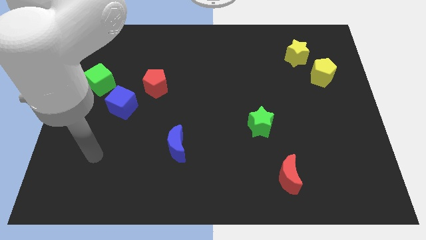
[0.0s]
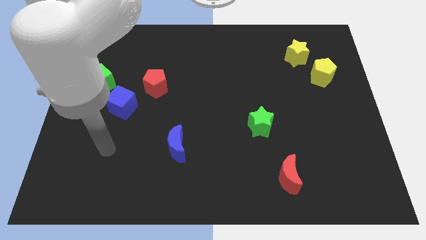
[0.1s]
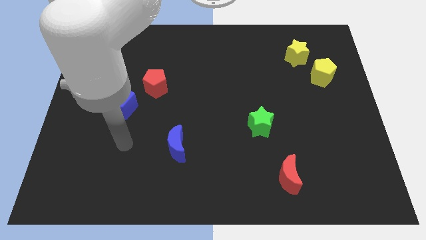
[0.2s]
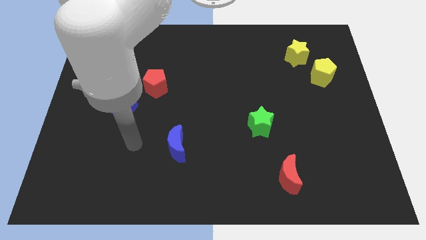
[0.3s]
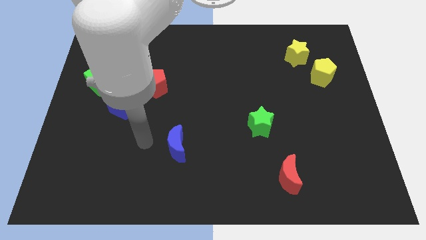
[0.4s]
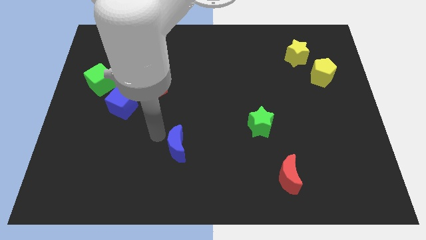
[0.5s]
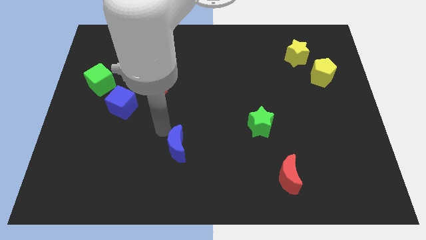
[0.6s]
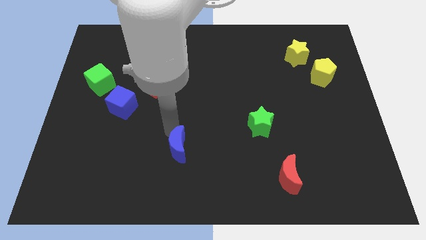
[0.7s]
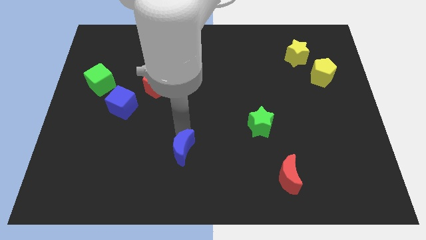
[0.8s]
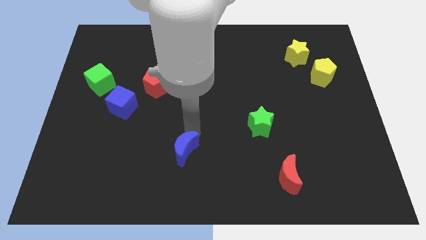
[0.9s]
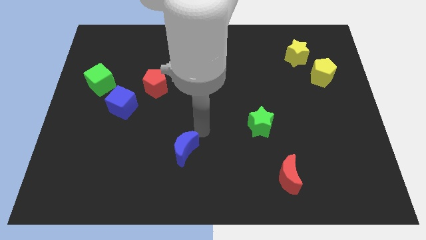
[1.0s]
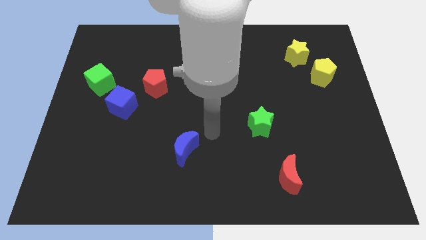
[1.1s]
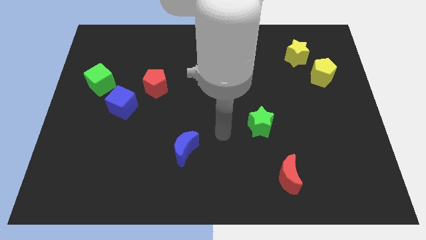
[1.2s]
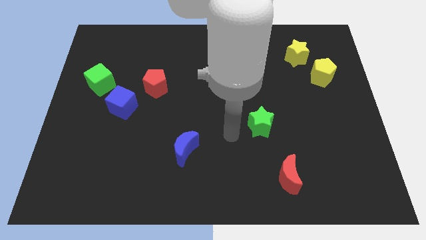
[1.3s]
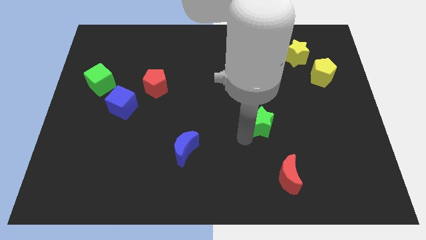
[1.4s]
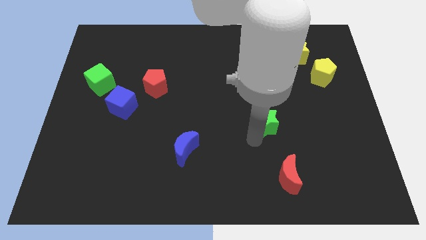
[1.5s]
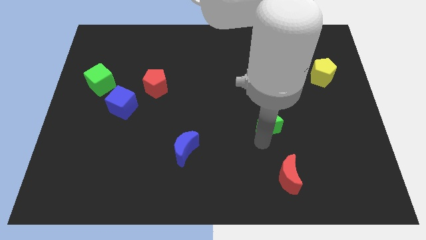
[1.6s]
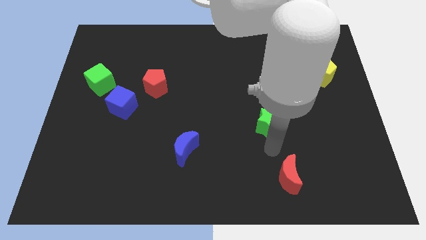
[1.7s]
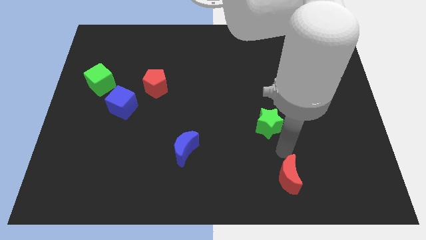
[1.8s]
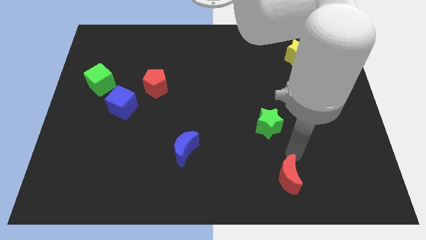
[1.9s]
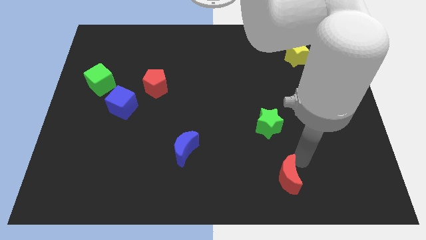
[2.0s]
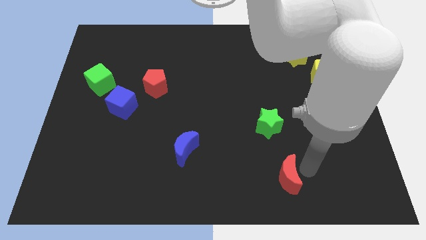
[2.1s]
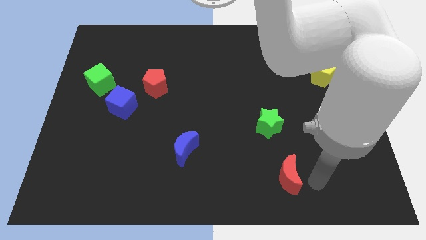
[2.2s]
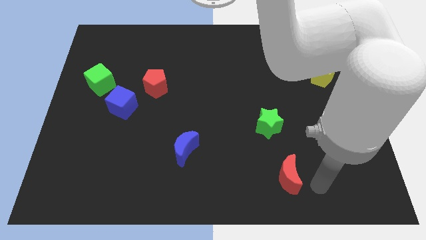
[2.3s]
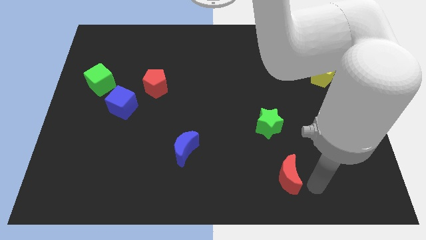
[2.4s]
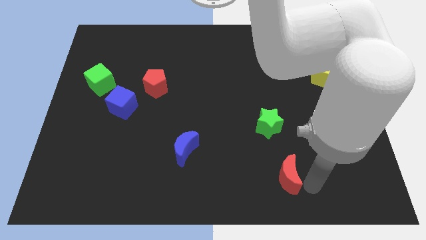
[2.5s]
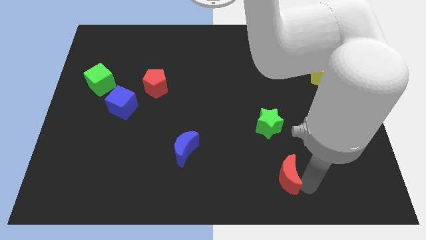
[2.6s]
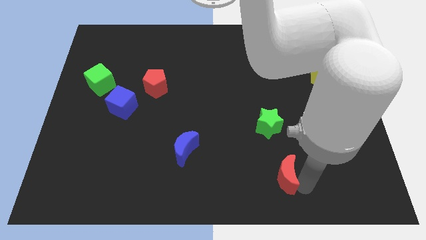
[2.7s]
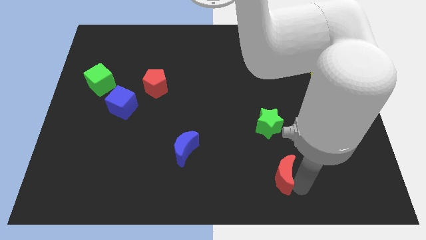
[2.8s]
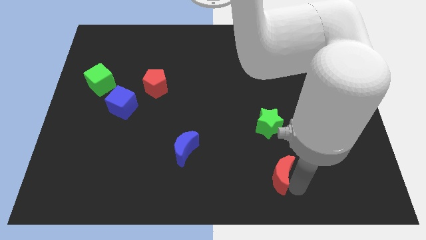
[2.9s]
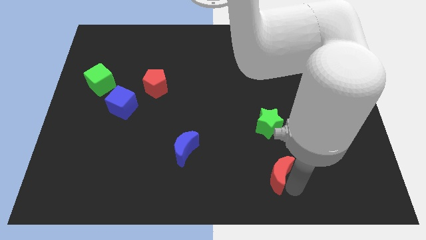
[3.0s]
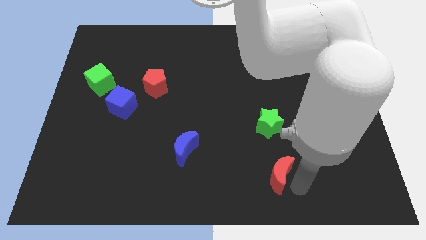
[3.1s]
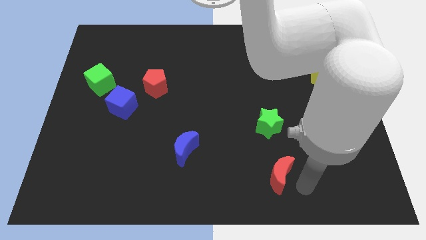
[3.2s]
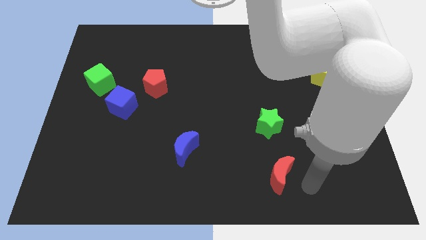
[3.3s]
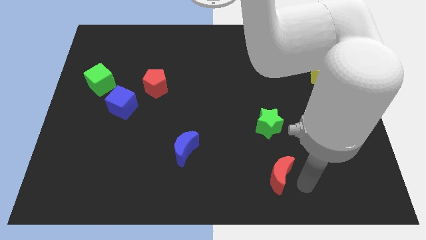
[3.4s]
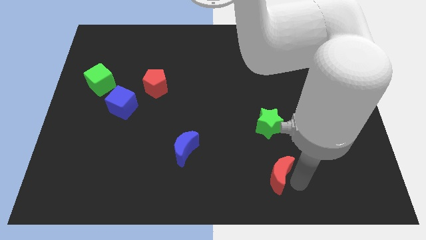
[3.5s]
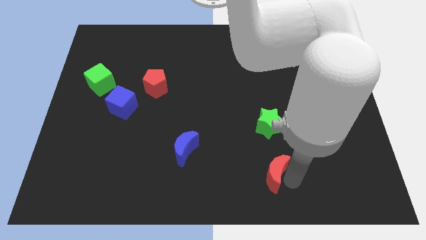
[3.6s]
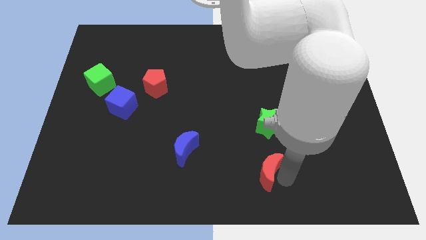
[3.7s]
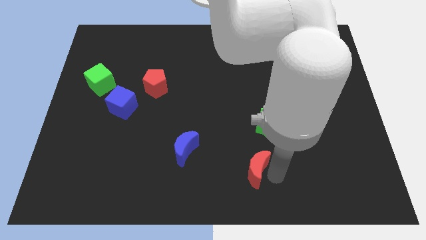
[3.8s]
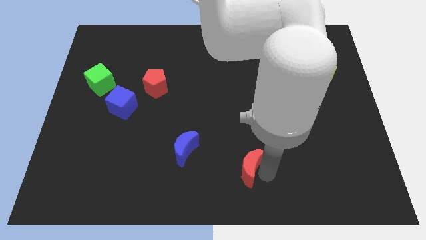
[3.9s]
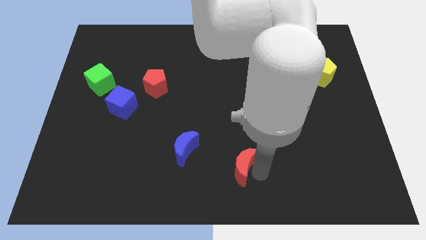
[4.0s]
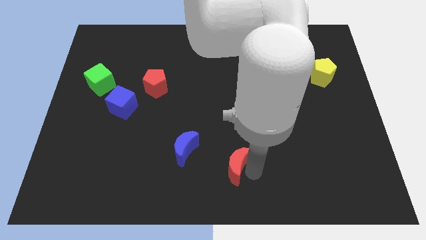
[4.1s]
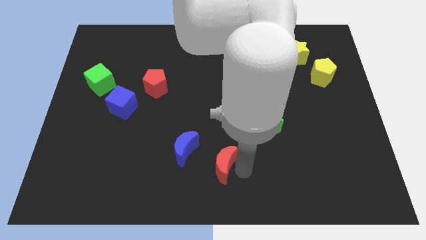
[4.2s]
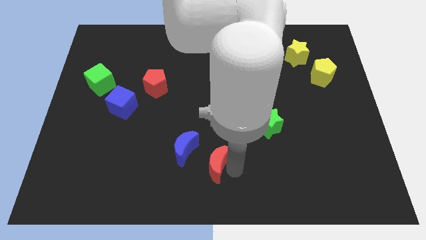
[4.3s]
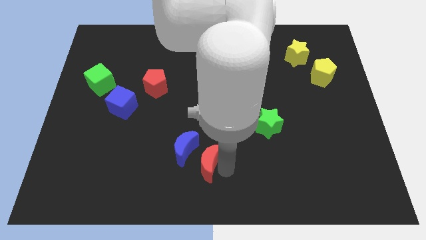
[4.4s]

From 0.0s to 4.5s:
move the red moon next to the blue moon

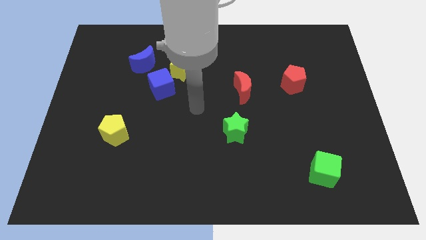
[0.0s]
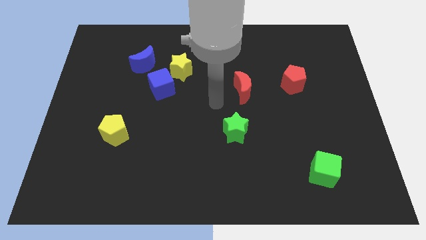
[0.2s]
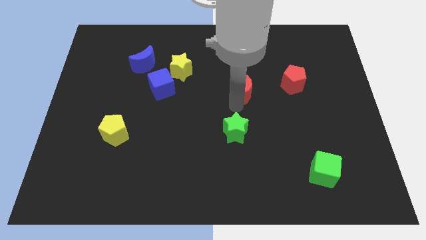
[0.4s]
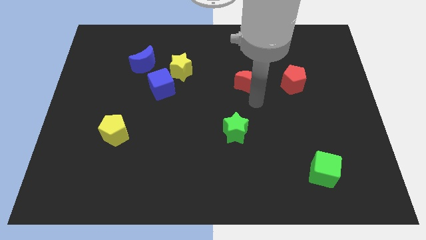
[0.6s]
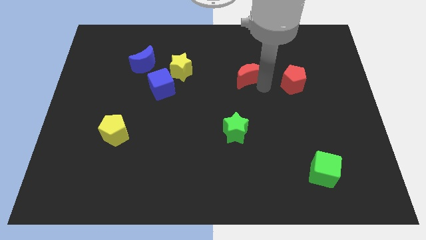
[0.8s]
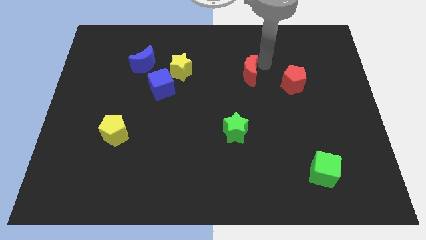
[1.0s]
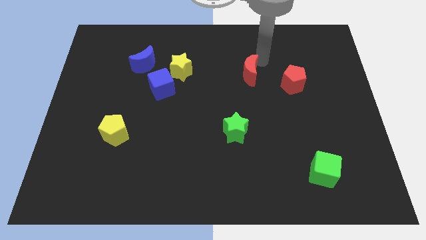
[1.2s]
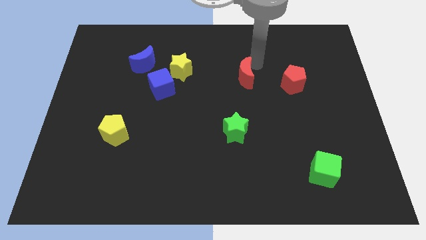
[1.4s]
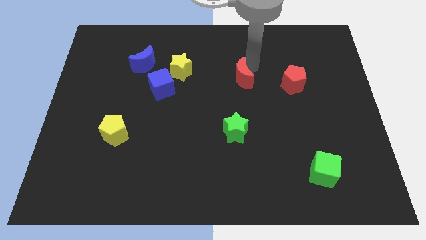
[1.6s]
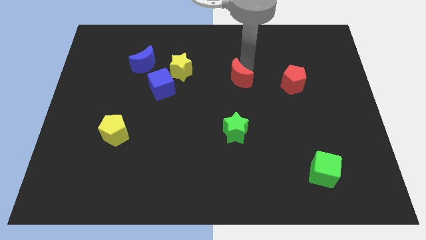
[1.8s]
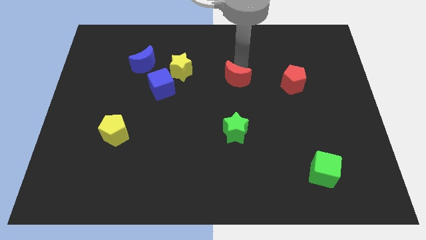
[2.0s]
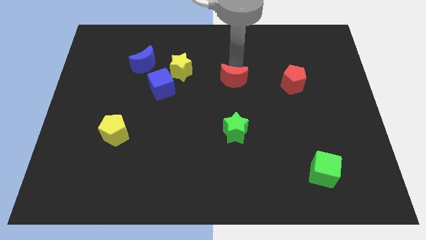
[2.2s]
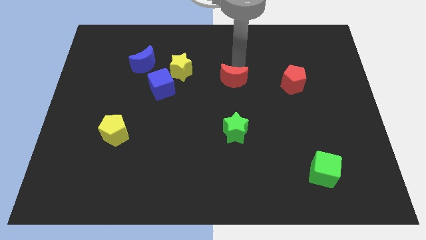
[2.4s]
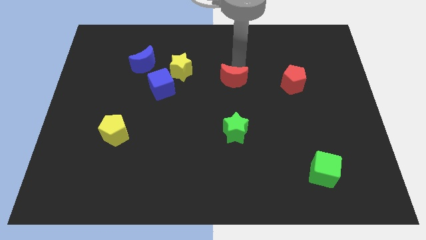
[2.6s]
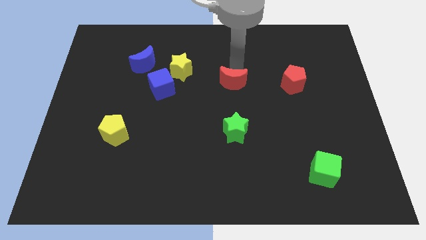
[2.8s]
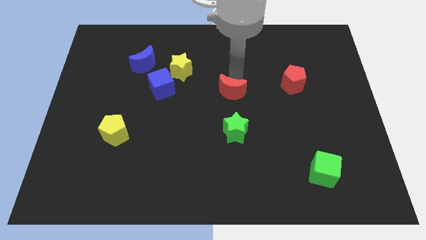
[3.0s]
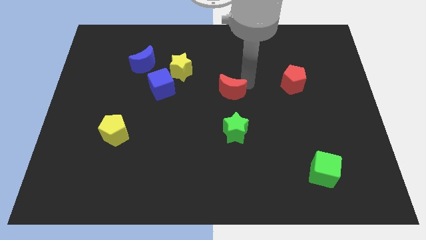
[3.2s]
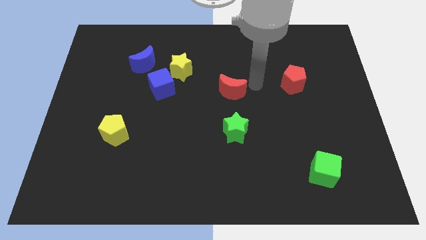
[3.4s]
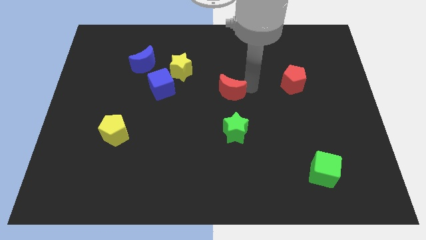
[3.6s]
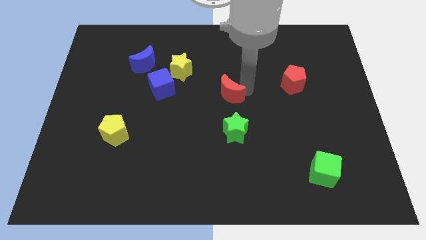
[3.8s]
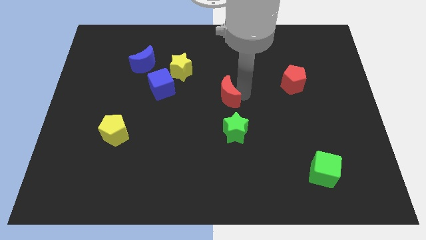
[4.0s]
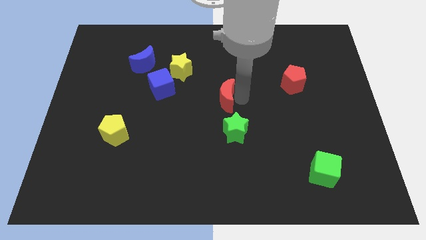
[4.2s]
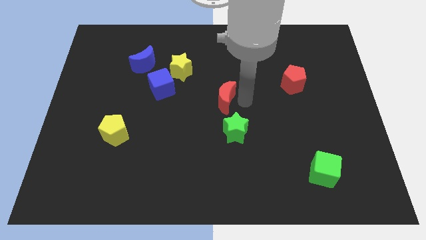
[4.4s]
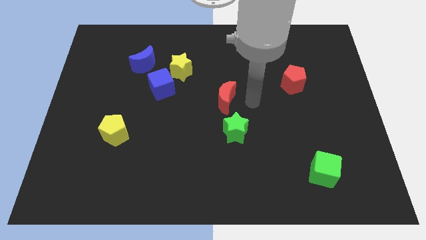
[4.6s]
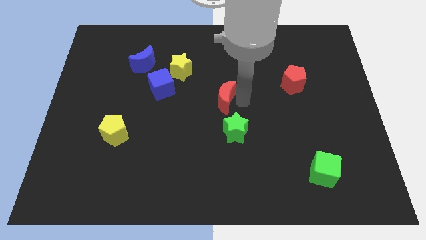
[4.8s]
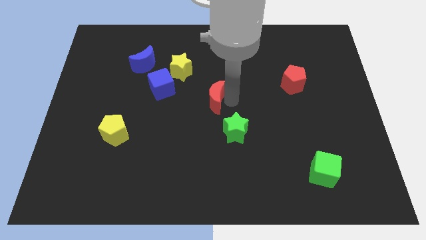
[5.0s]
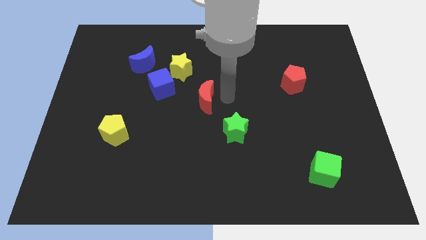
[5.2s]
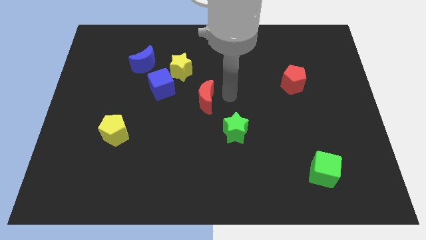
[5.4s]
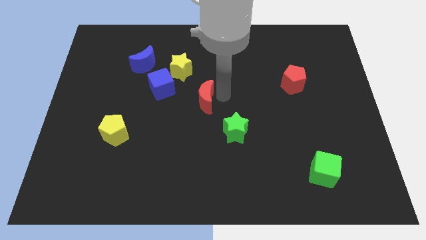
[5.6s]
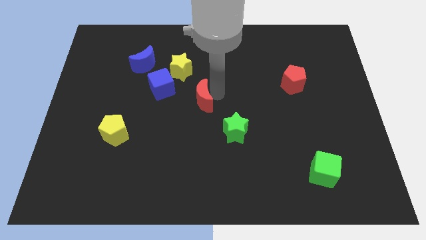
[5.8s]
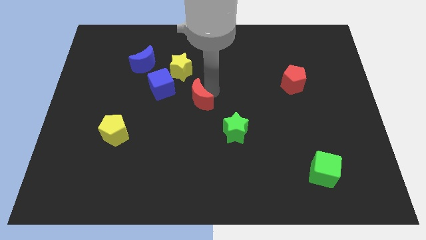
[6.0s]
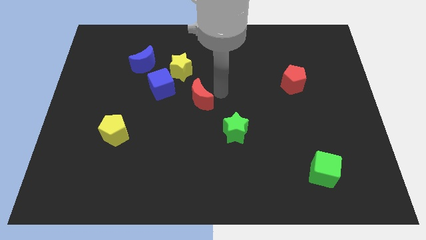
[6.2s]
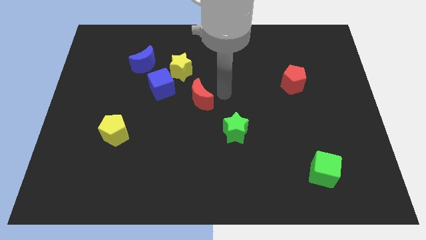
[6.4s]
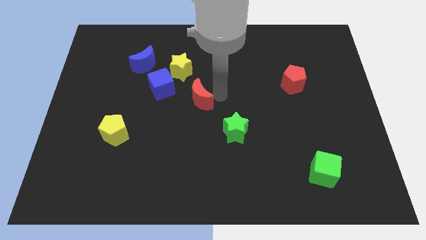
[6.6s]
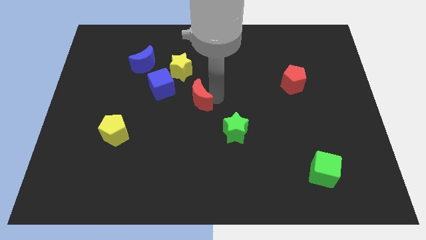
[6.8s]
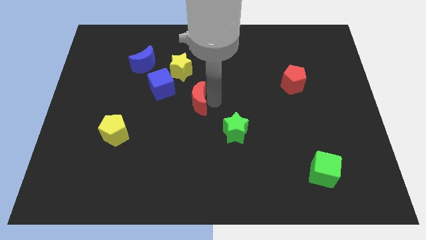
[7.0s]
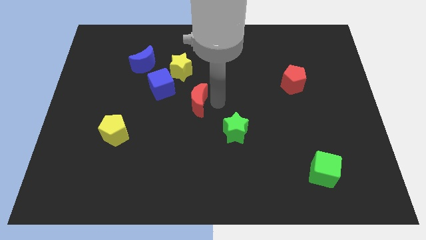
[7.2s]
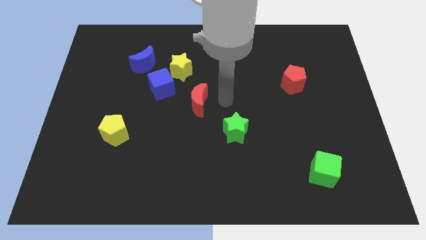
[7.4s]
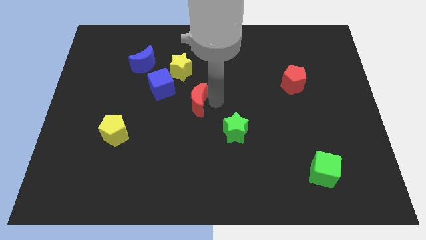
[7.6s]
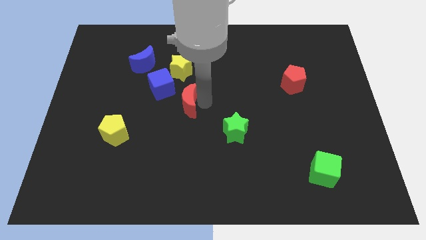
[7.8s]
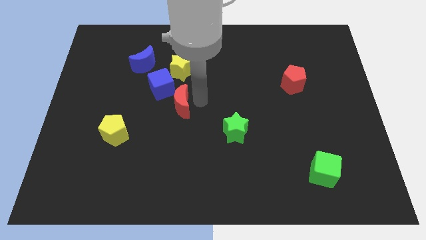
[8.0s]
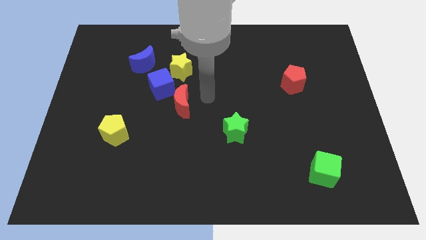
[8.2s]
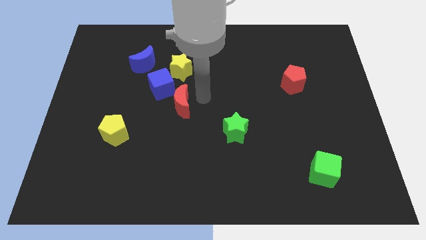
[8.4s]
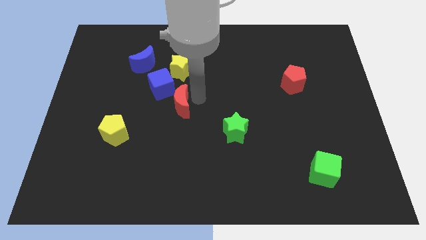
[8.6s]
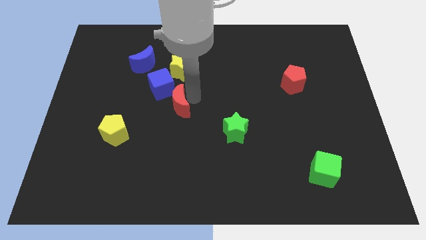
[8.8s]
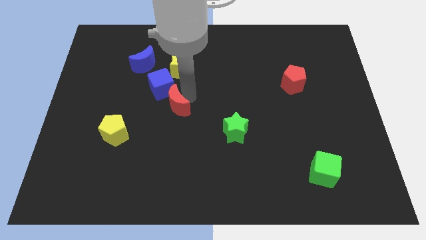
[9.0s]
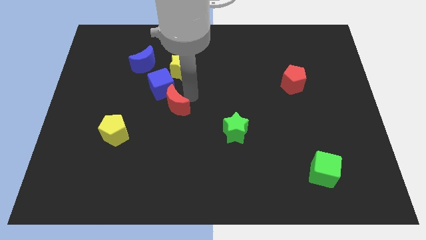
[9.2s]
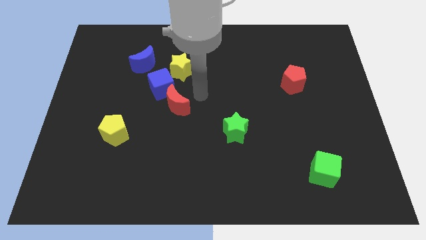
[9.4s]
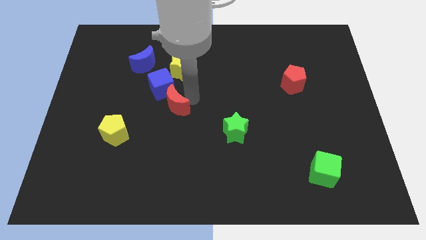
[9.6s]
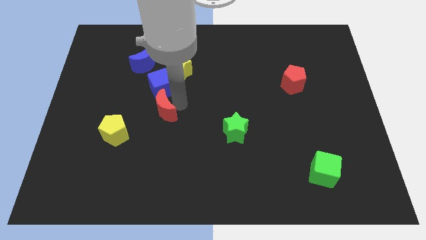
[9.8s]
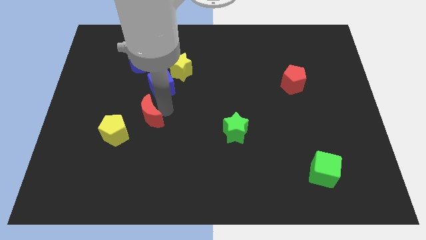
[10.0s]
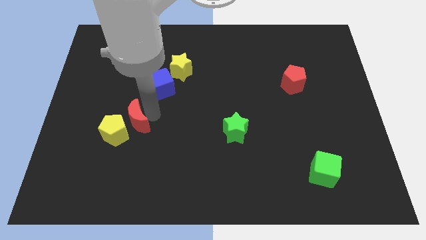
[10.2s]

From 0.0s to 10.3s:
push the red moon close to the yellow pentagon
